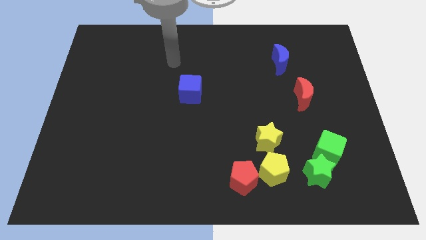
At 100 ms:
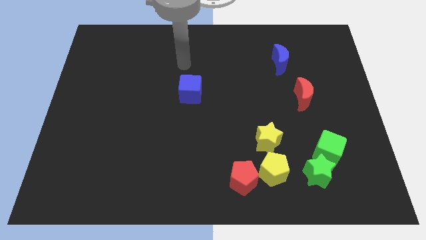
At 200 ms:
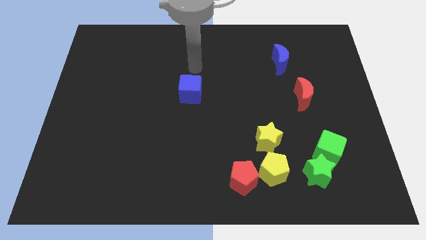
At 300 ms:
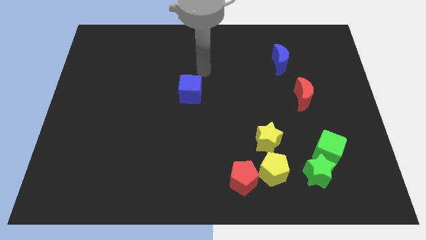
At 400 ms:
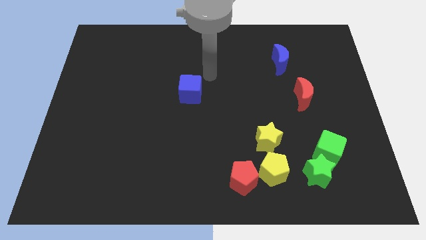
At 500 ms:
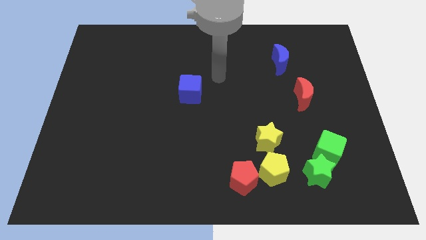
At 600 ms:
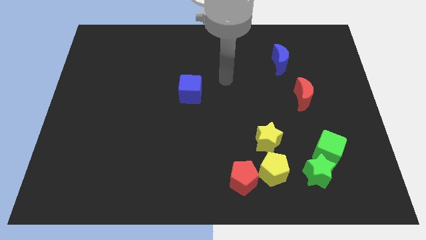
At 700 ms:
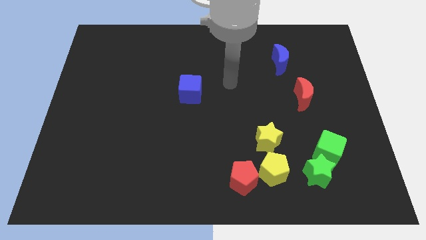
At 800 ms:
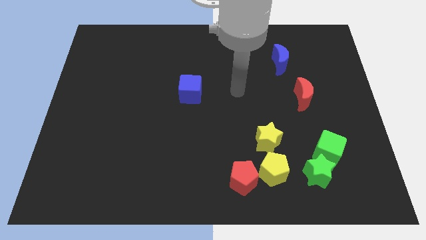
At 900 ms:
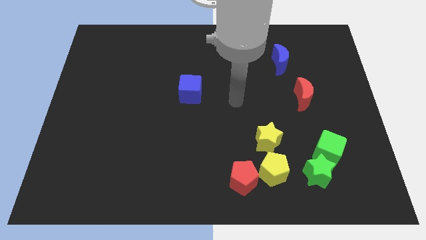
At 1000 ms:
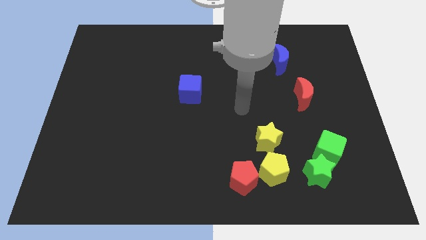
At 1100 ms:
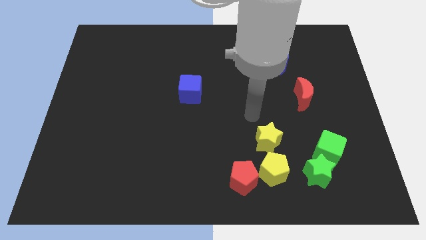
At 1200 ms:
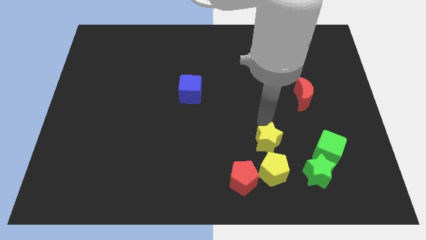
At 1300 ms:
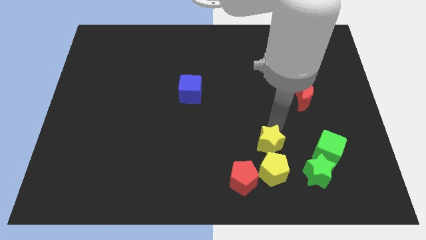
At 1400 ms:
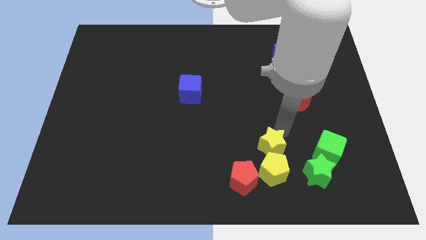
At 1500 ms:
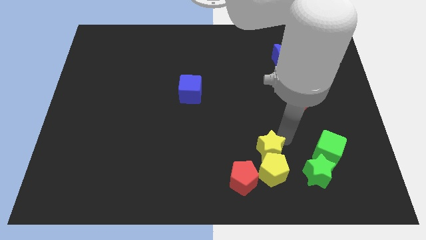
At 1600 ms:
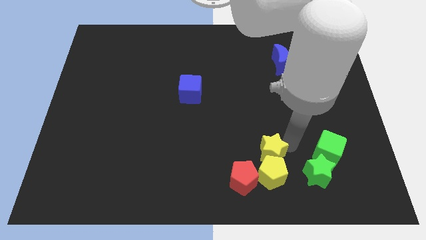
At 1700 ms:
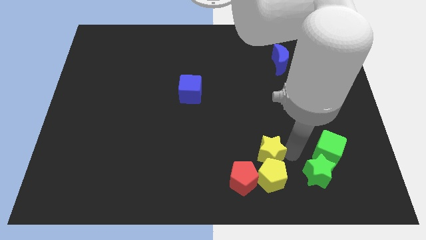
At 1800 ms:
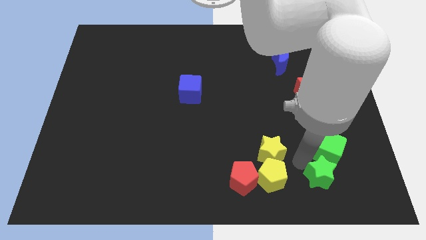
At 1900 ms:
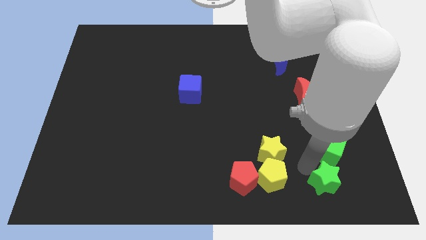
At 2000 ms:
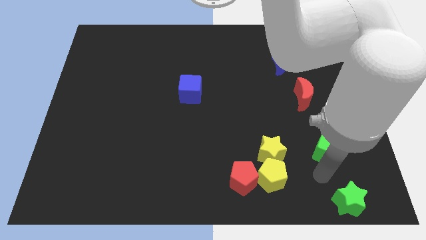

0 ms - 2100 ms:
move the green cube away from the green star

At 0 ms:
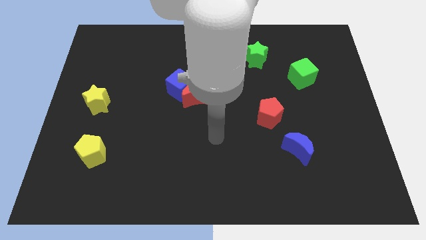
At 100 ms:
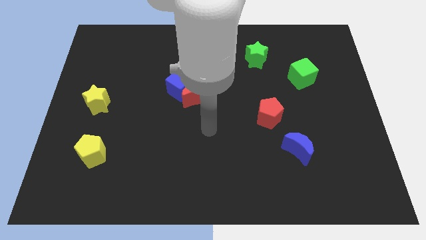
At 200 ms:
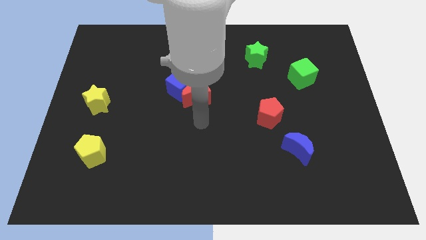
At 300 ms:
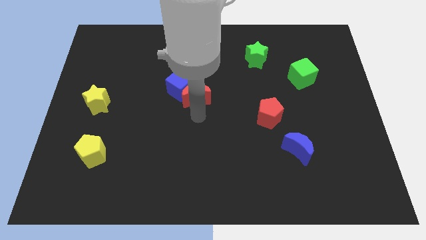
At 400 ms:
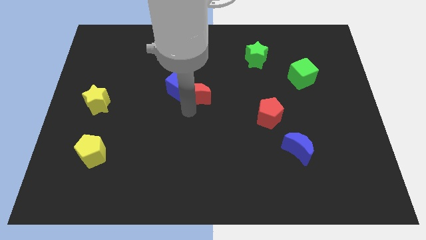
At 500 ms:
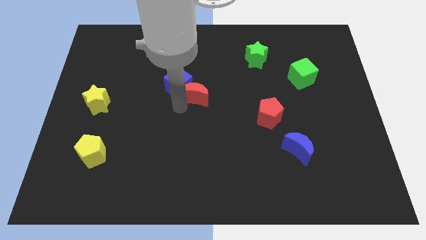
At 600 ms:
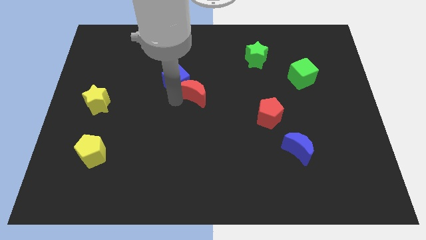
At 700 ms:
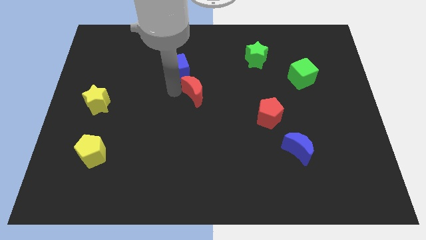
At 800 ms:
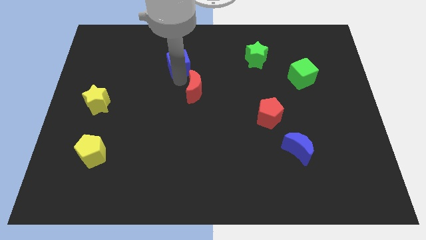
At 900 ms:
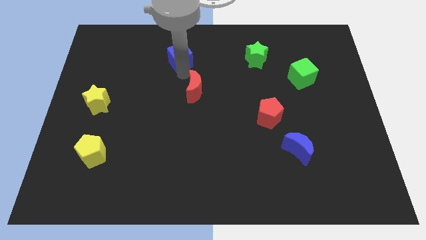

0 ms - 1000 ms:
pull the red moon apart from the blue cube

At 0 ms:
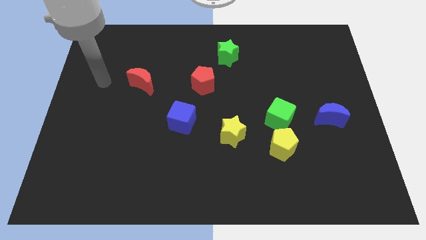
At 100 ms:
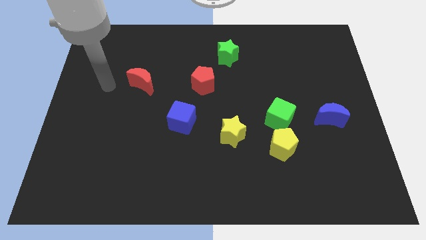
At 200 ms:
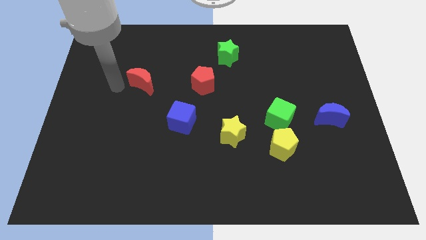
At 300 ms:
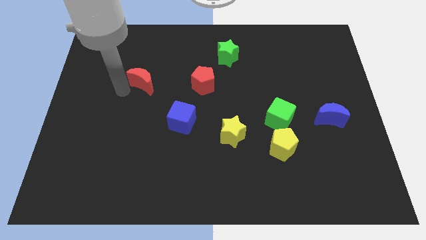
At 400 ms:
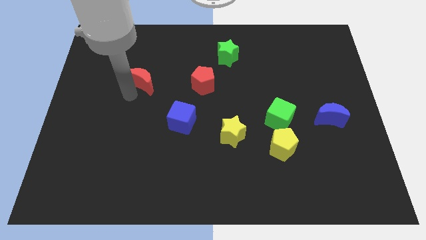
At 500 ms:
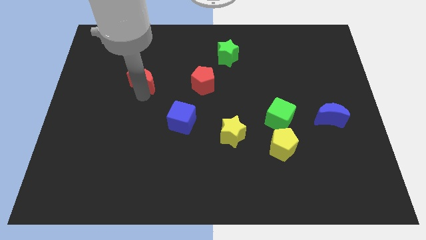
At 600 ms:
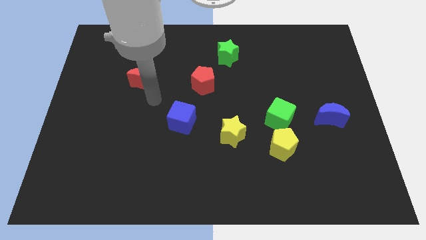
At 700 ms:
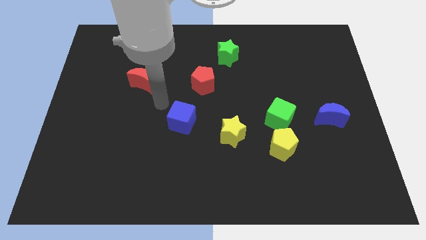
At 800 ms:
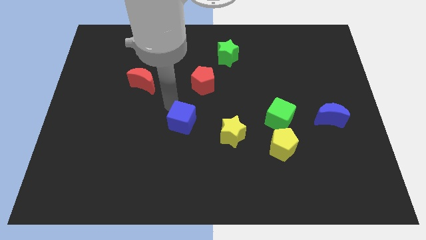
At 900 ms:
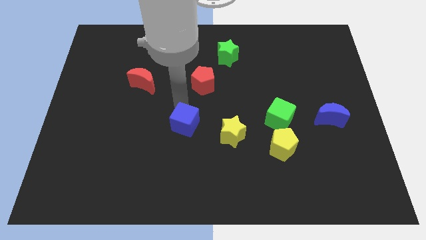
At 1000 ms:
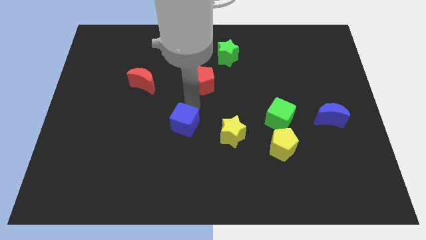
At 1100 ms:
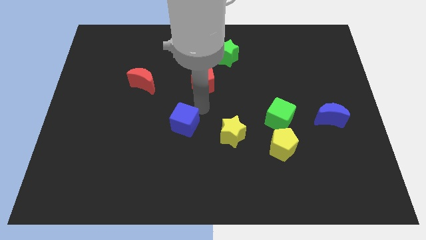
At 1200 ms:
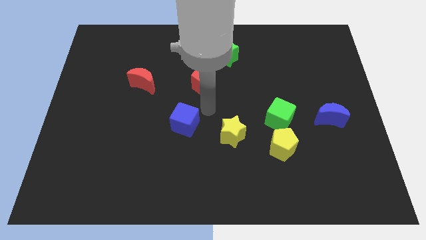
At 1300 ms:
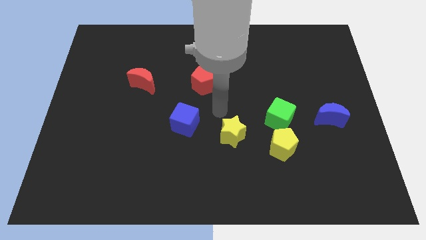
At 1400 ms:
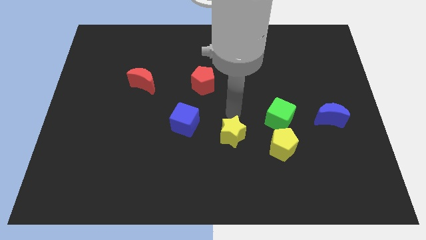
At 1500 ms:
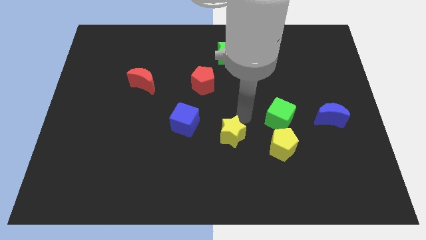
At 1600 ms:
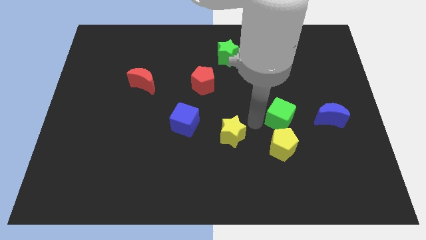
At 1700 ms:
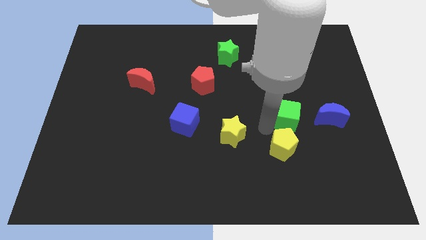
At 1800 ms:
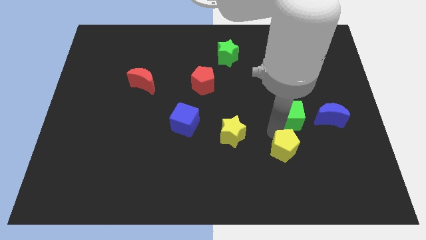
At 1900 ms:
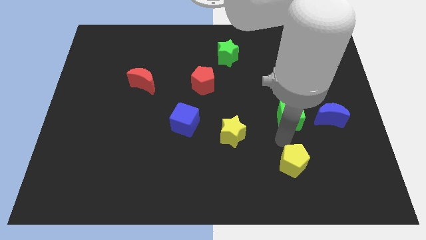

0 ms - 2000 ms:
separate the green cube from the yellow pentagon

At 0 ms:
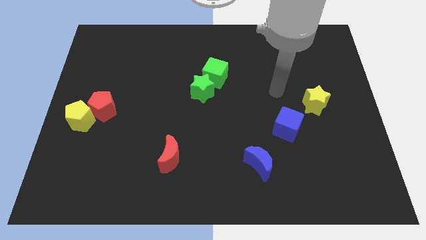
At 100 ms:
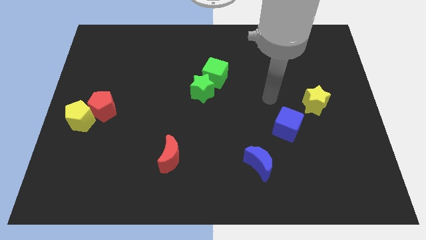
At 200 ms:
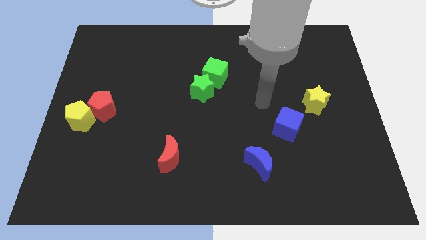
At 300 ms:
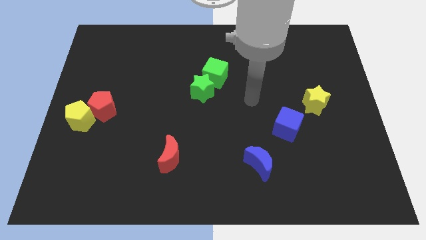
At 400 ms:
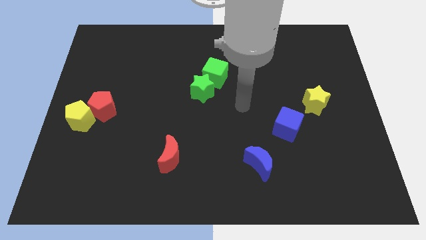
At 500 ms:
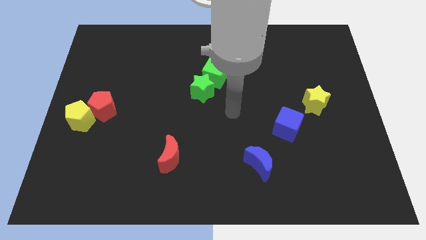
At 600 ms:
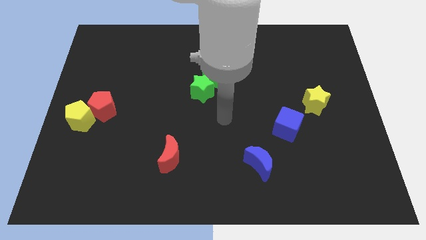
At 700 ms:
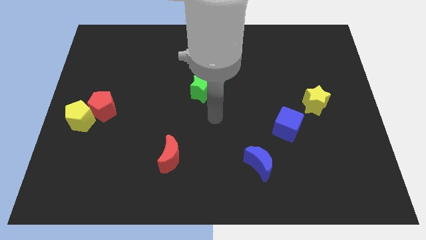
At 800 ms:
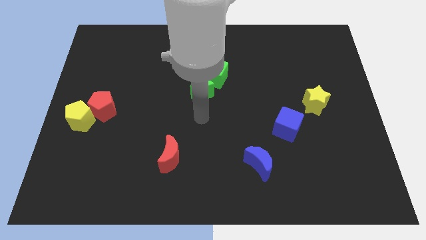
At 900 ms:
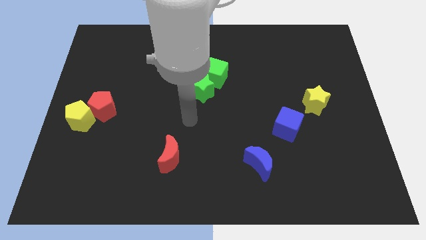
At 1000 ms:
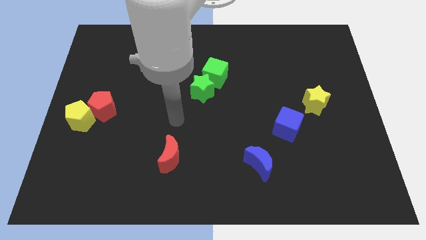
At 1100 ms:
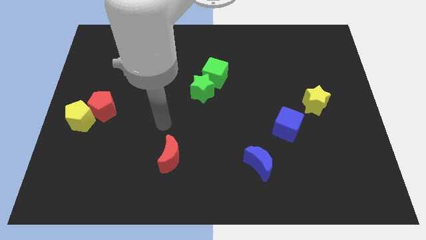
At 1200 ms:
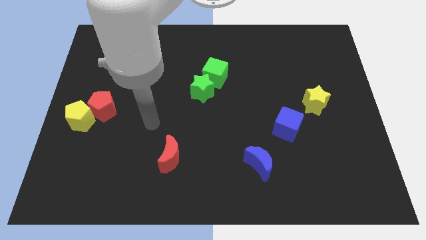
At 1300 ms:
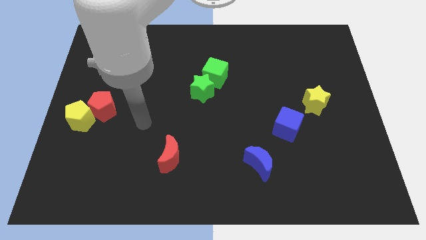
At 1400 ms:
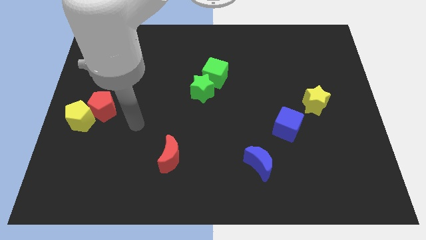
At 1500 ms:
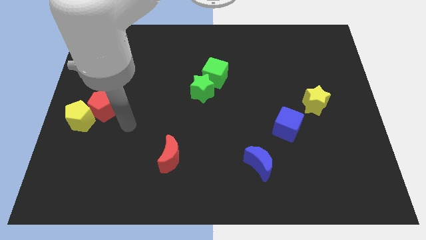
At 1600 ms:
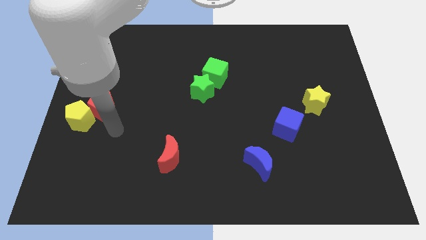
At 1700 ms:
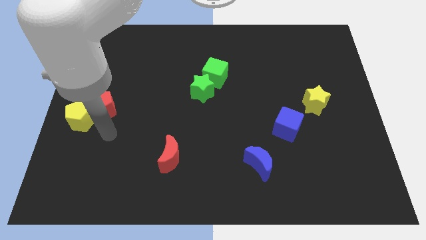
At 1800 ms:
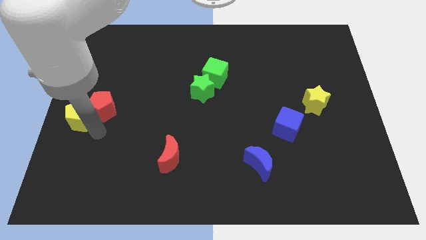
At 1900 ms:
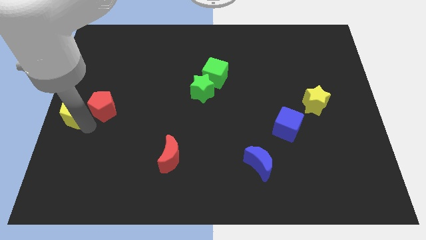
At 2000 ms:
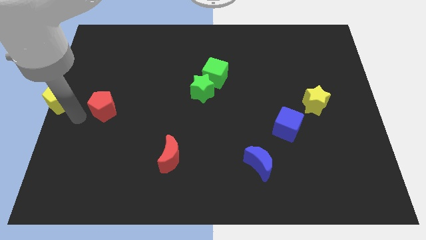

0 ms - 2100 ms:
separate the red pentagon from the yellow pentagon

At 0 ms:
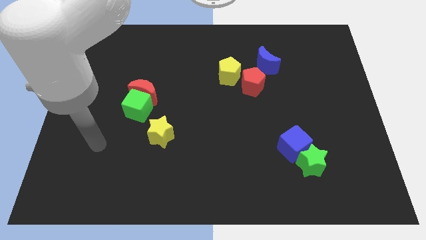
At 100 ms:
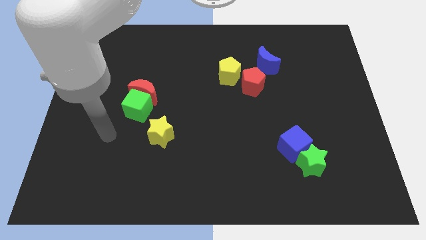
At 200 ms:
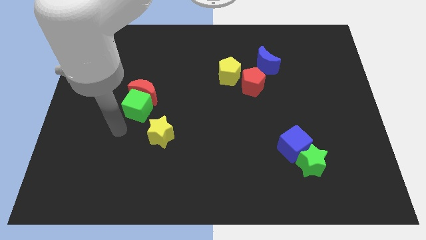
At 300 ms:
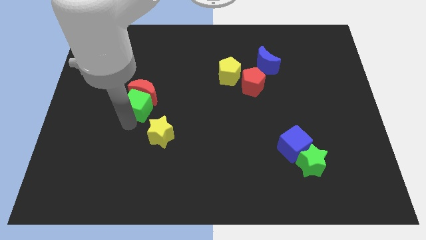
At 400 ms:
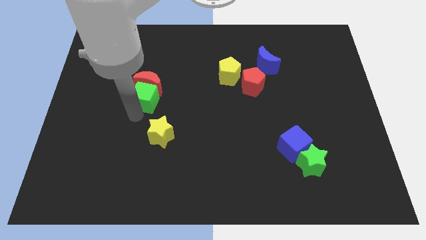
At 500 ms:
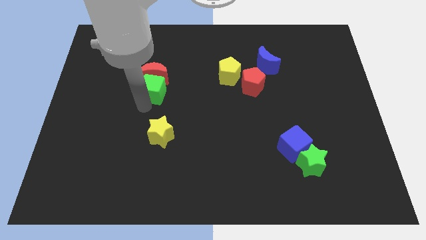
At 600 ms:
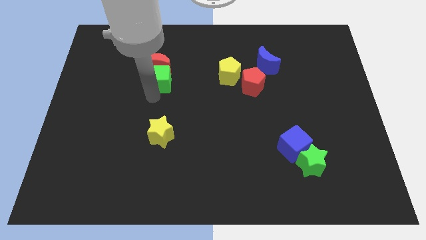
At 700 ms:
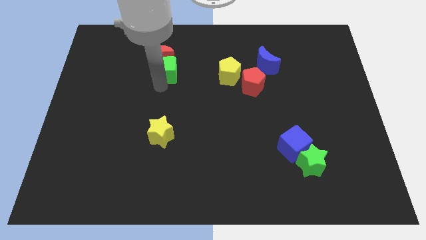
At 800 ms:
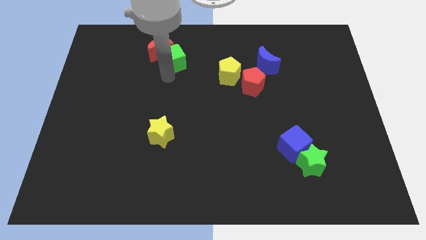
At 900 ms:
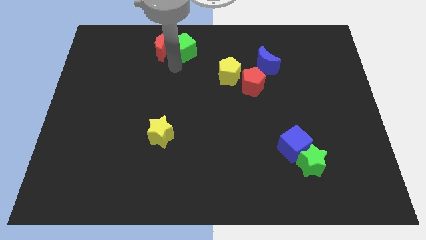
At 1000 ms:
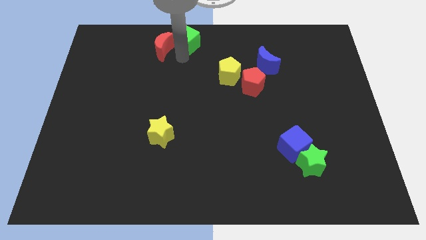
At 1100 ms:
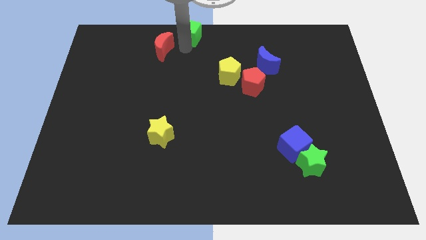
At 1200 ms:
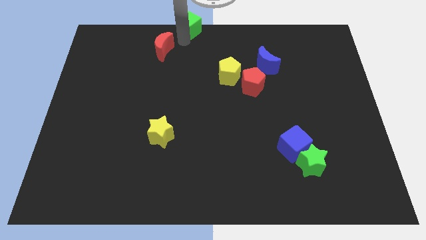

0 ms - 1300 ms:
separate the red moon from the green cube

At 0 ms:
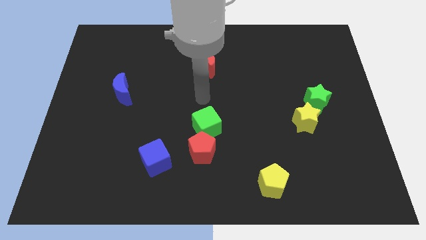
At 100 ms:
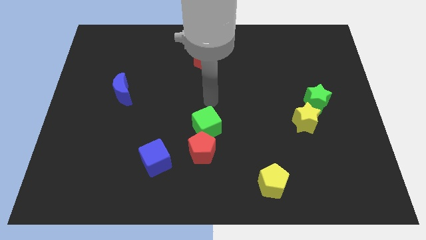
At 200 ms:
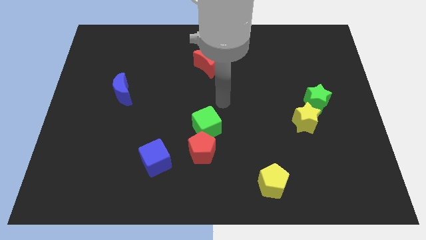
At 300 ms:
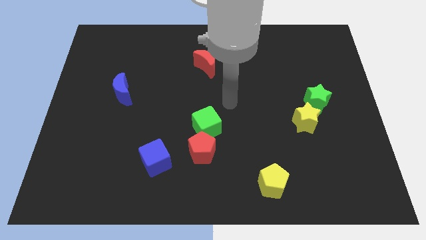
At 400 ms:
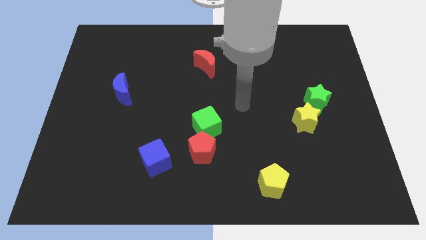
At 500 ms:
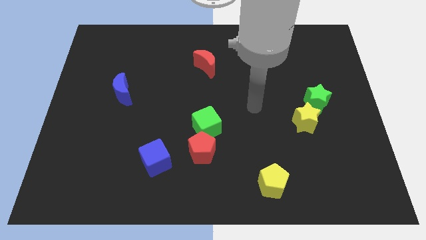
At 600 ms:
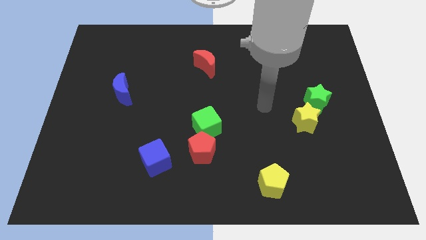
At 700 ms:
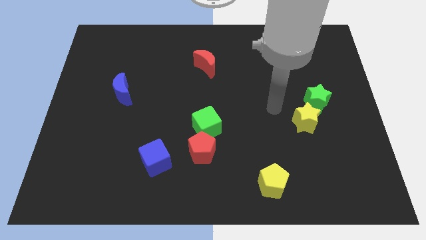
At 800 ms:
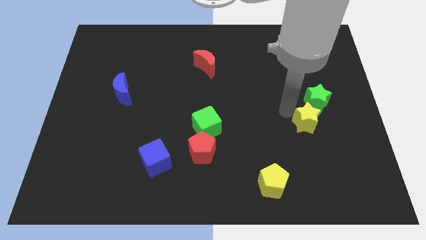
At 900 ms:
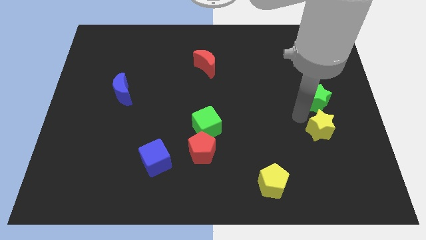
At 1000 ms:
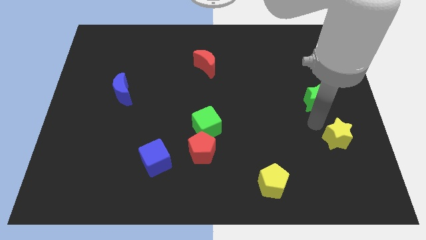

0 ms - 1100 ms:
separate the green star from the yellow star
